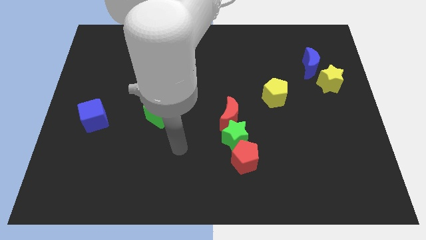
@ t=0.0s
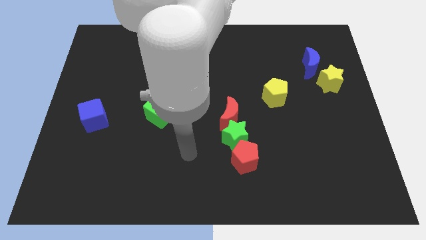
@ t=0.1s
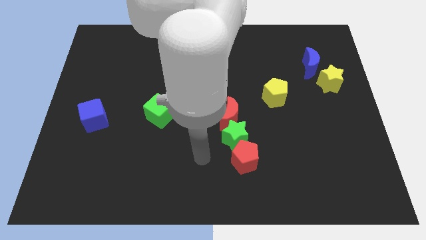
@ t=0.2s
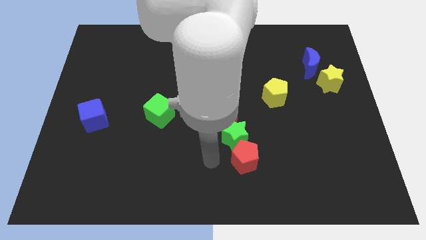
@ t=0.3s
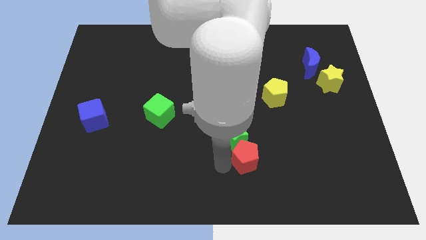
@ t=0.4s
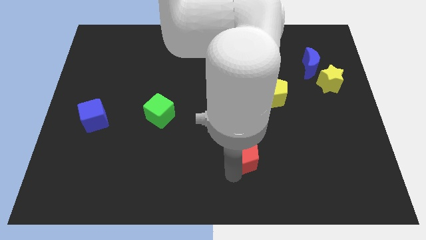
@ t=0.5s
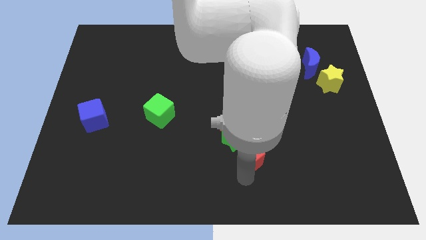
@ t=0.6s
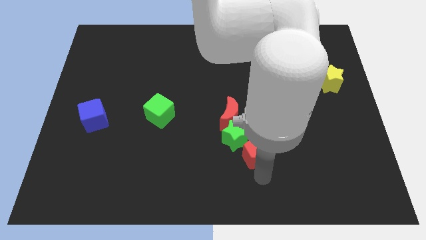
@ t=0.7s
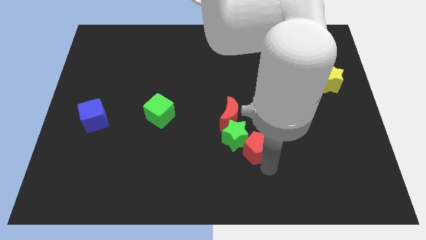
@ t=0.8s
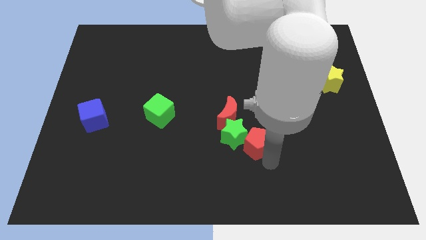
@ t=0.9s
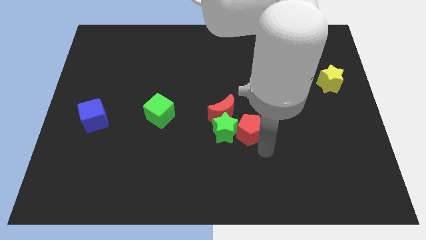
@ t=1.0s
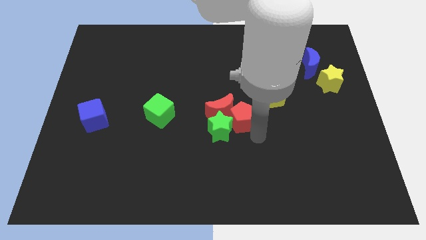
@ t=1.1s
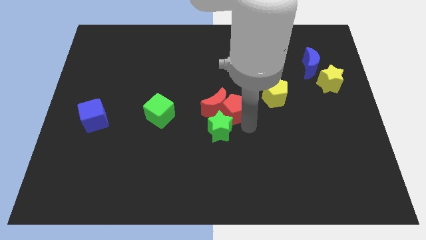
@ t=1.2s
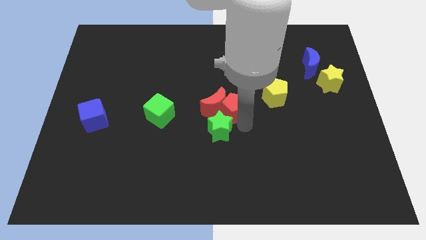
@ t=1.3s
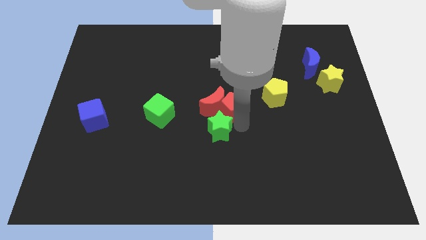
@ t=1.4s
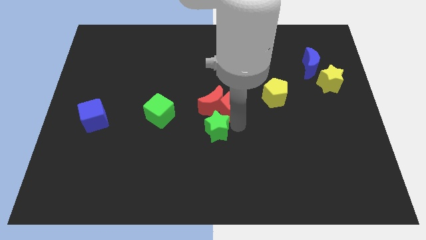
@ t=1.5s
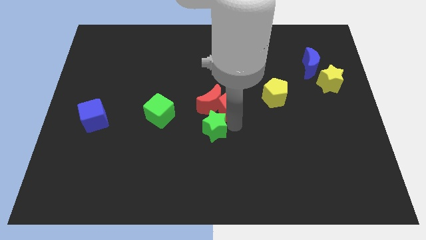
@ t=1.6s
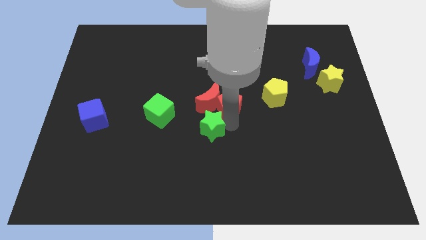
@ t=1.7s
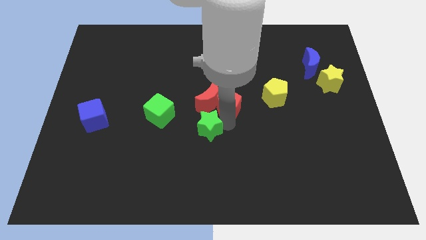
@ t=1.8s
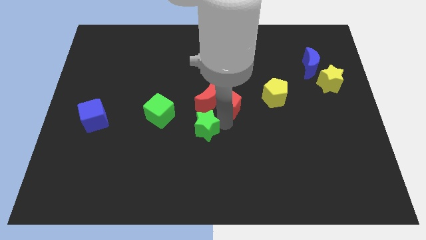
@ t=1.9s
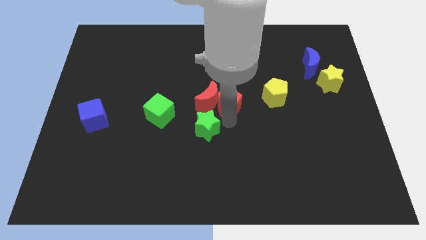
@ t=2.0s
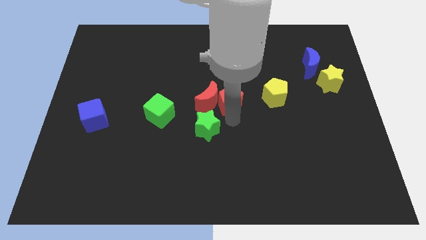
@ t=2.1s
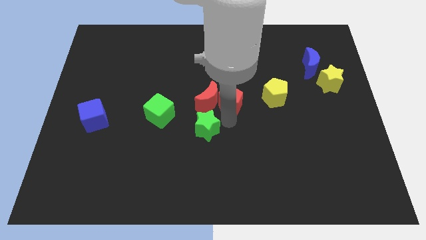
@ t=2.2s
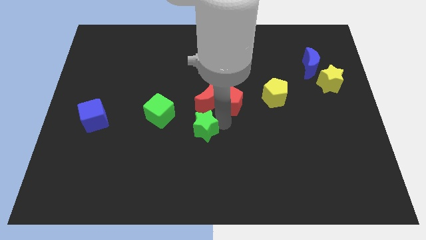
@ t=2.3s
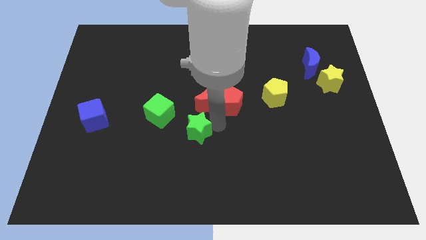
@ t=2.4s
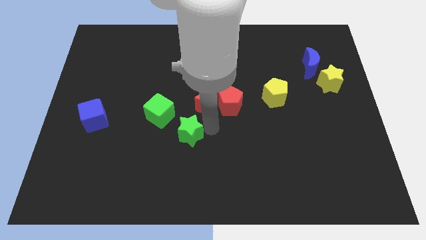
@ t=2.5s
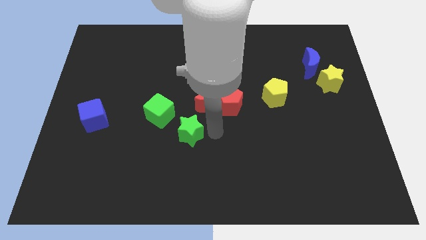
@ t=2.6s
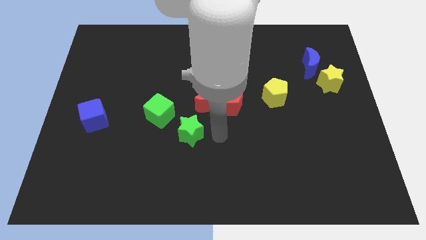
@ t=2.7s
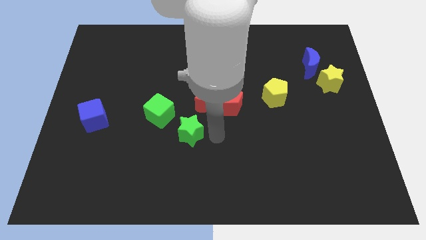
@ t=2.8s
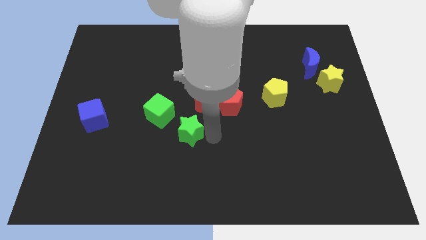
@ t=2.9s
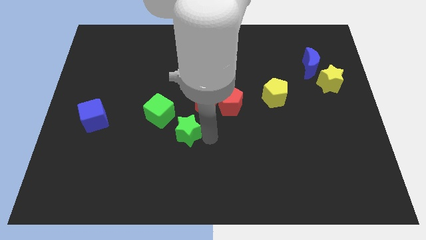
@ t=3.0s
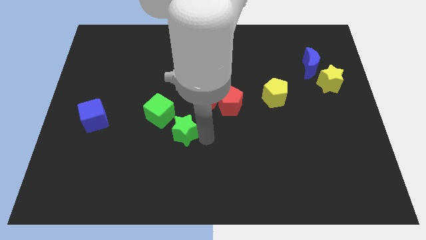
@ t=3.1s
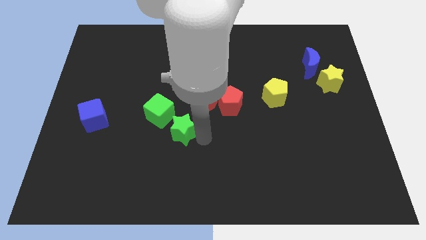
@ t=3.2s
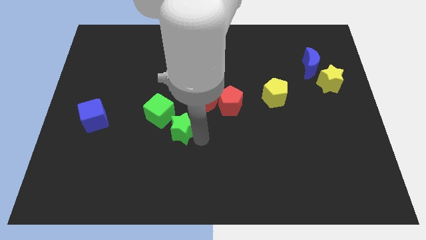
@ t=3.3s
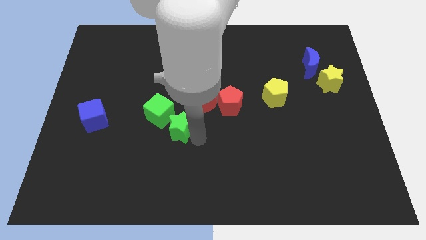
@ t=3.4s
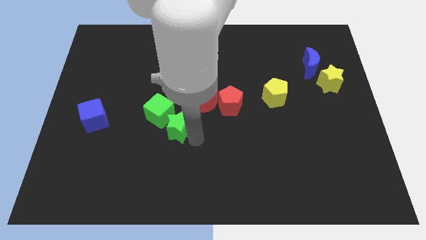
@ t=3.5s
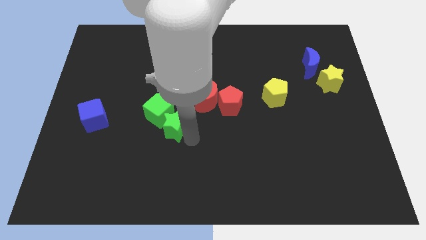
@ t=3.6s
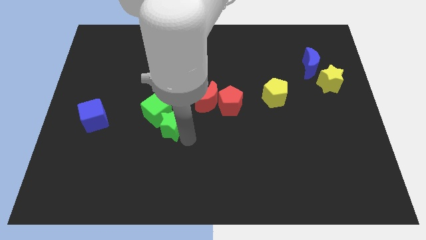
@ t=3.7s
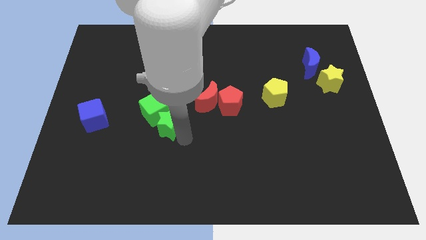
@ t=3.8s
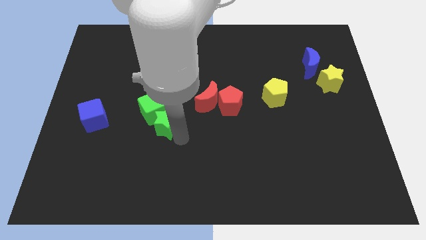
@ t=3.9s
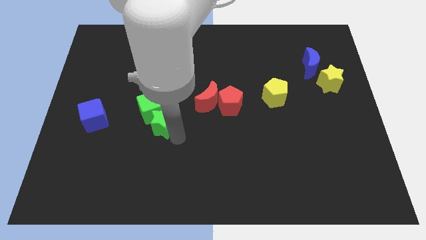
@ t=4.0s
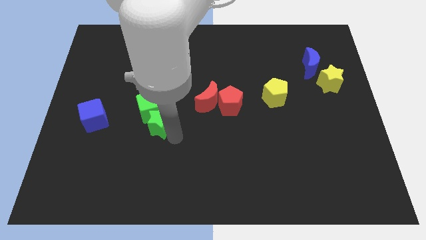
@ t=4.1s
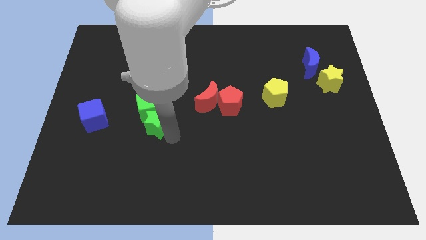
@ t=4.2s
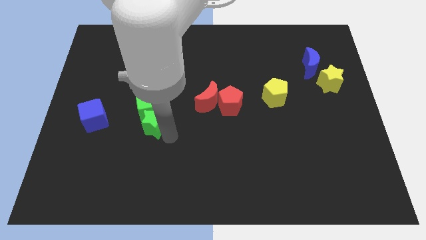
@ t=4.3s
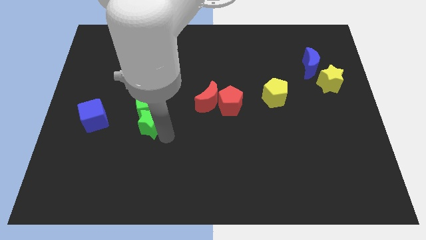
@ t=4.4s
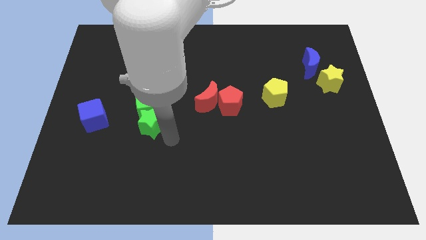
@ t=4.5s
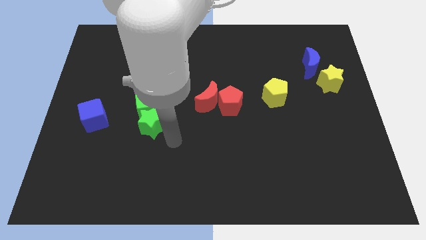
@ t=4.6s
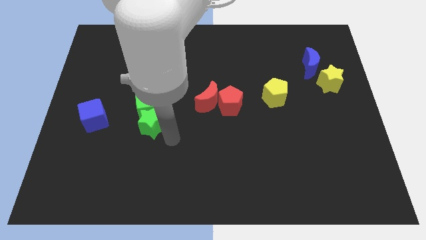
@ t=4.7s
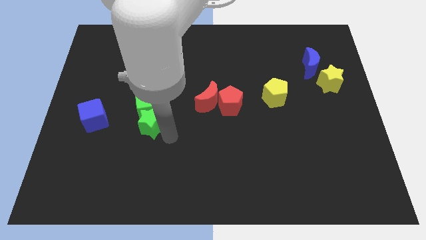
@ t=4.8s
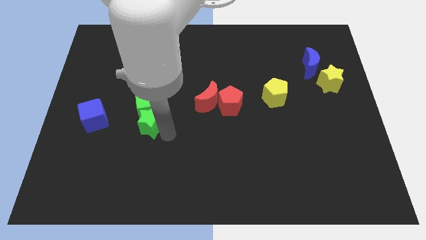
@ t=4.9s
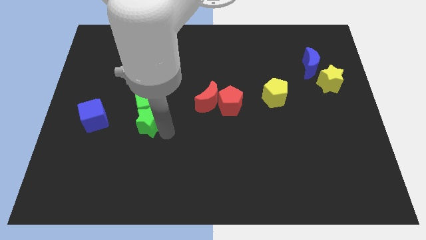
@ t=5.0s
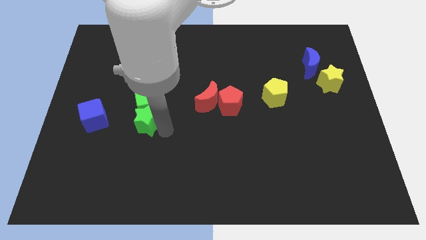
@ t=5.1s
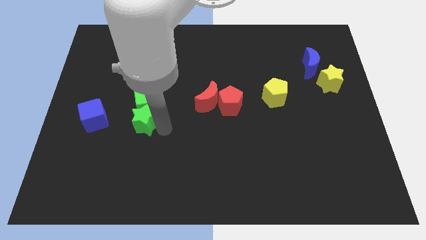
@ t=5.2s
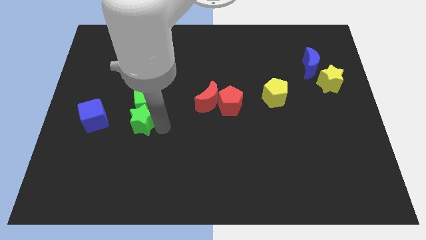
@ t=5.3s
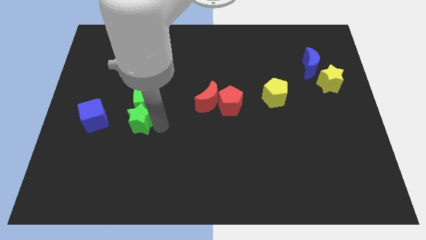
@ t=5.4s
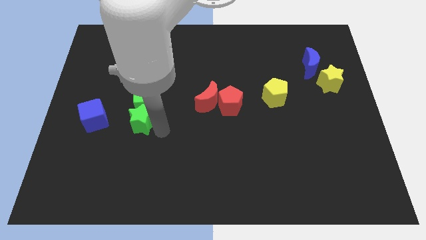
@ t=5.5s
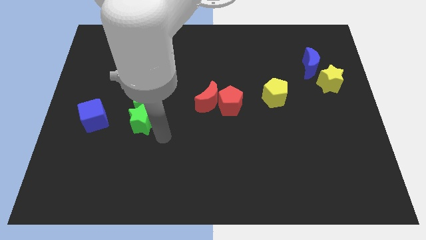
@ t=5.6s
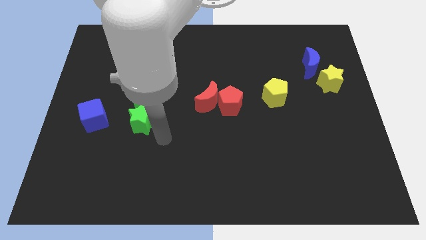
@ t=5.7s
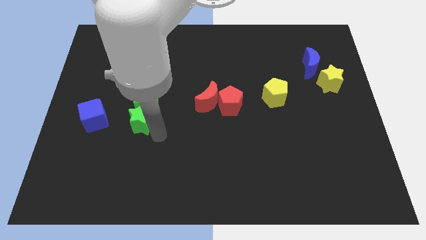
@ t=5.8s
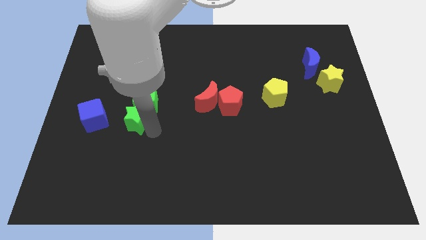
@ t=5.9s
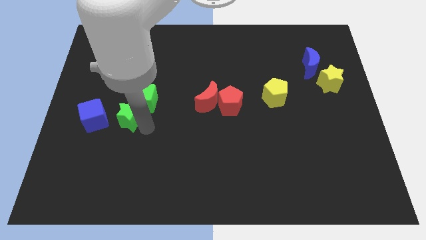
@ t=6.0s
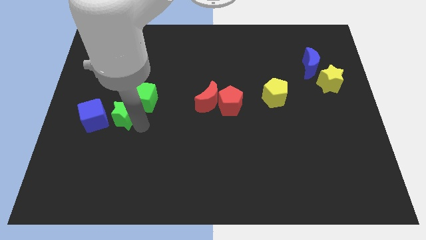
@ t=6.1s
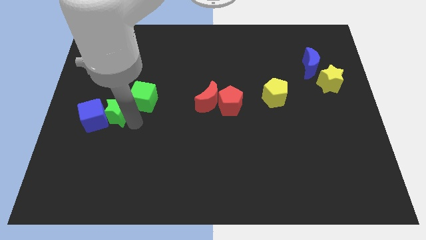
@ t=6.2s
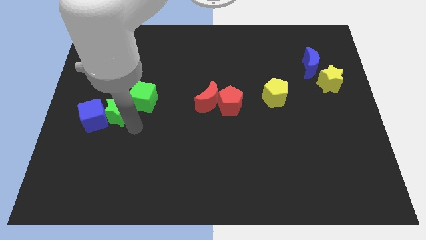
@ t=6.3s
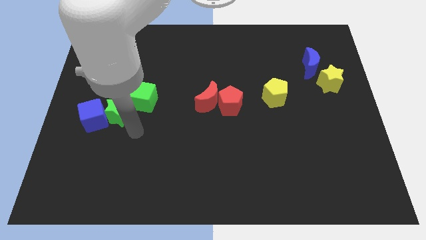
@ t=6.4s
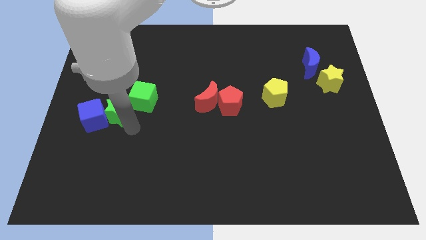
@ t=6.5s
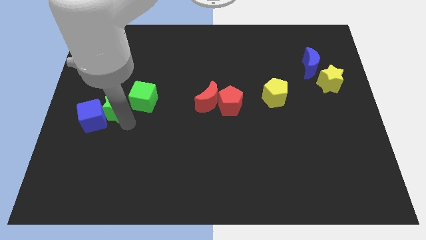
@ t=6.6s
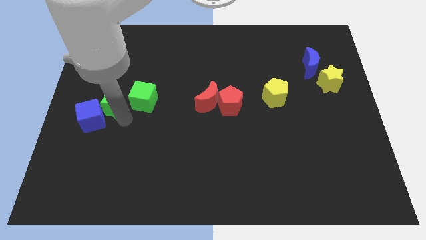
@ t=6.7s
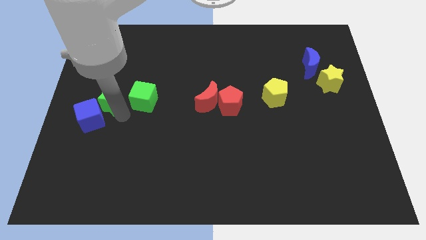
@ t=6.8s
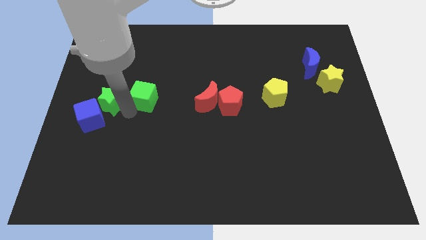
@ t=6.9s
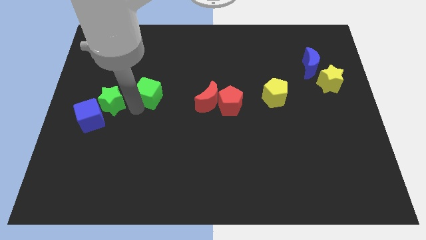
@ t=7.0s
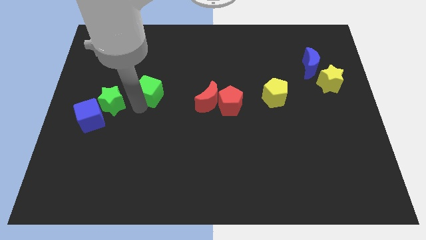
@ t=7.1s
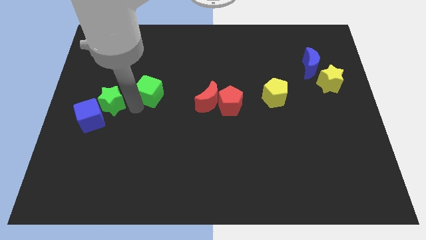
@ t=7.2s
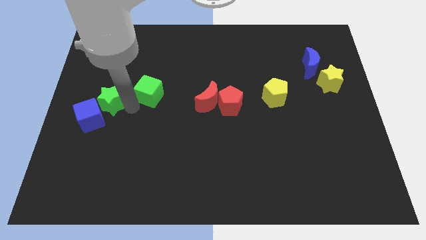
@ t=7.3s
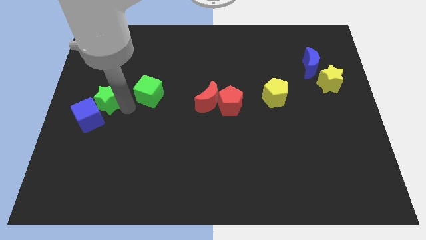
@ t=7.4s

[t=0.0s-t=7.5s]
put the green star to the left side
